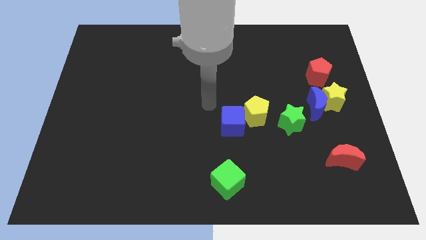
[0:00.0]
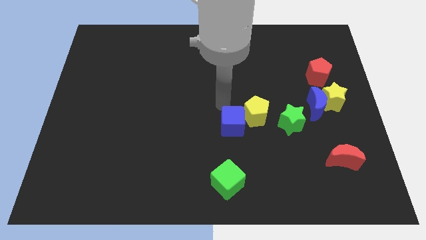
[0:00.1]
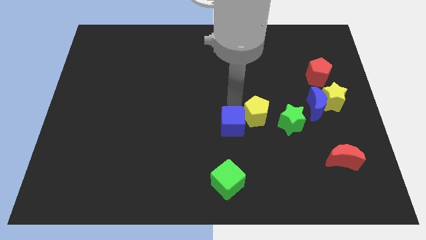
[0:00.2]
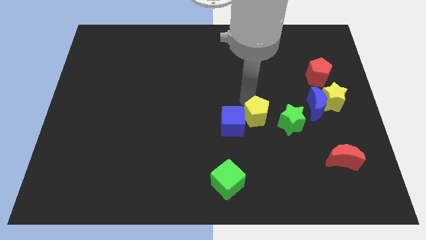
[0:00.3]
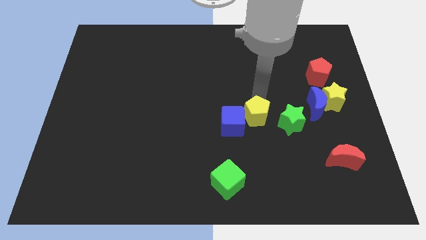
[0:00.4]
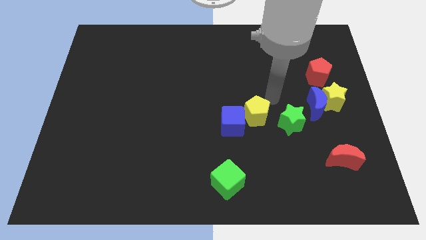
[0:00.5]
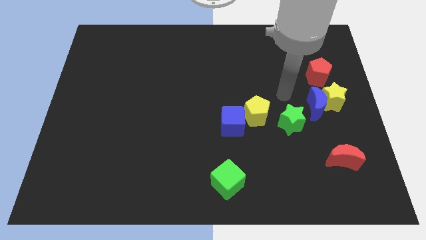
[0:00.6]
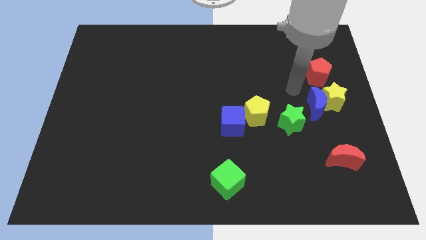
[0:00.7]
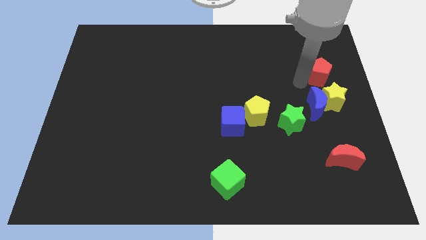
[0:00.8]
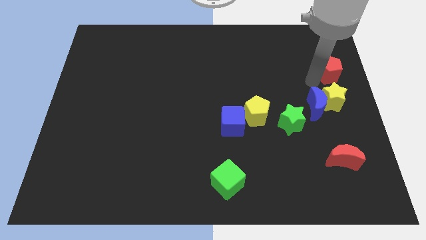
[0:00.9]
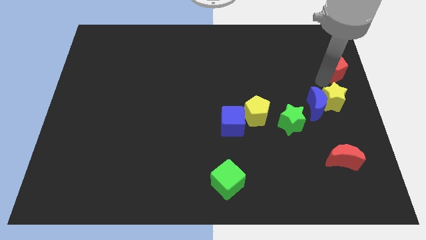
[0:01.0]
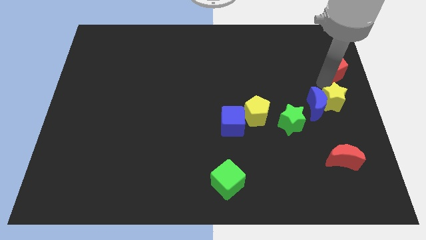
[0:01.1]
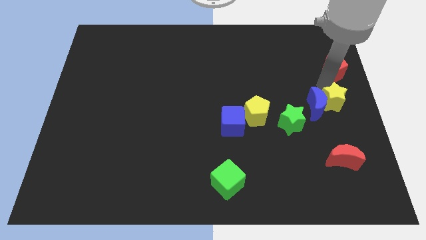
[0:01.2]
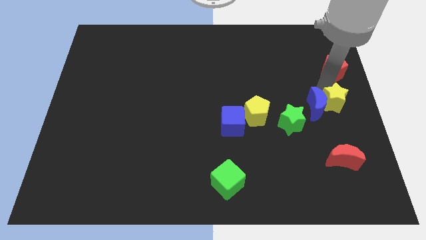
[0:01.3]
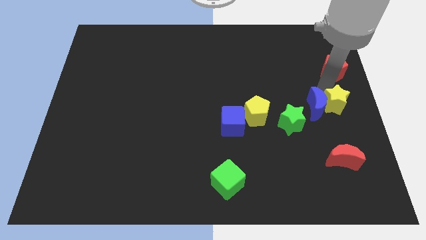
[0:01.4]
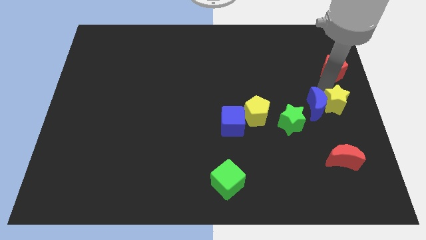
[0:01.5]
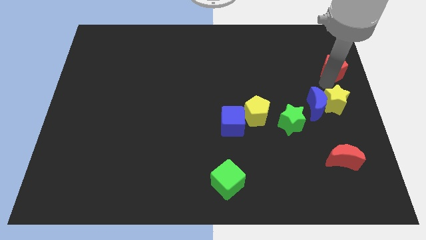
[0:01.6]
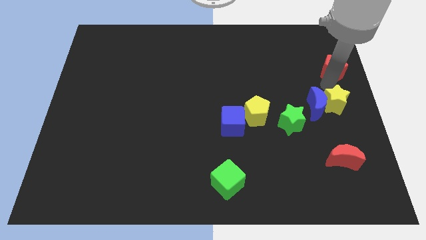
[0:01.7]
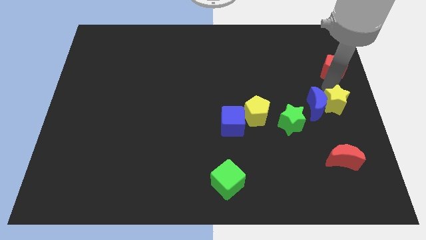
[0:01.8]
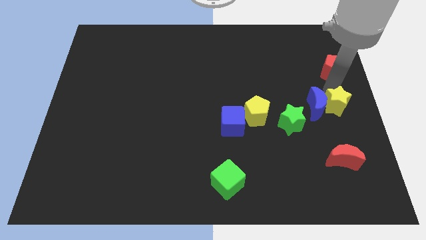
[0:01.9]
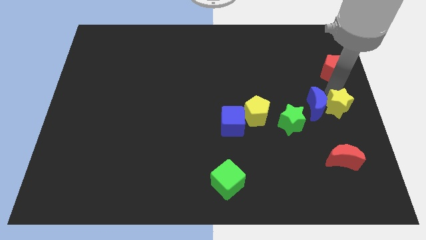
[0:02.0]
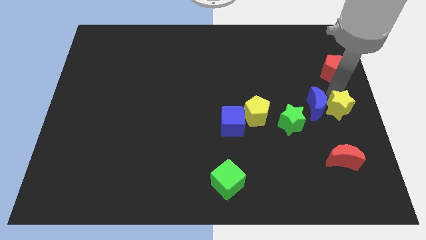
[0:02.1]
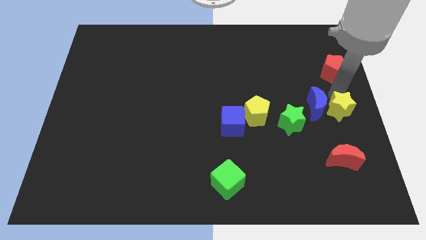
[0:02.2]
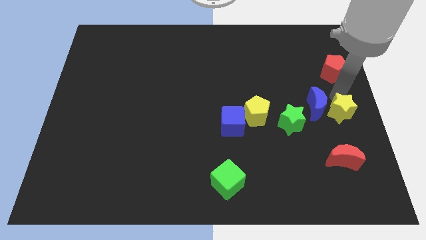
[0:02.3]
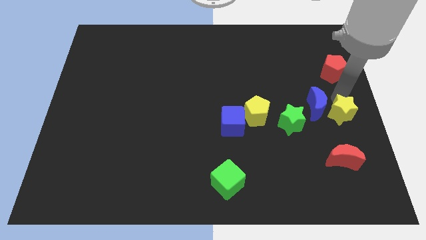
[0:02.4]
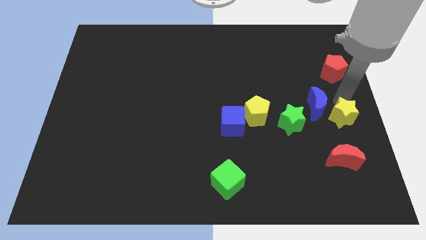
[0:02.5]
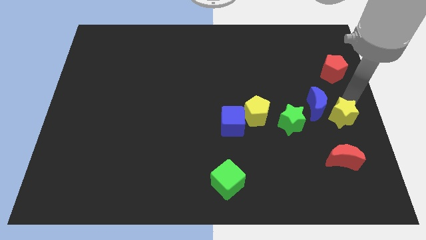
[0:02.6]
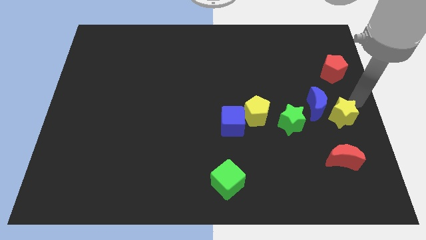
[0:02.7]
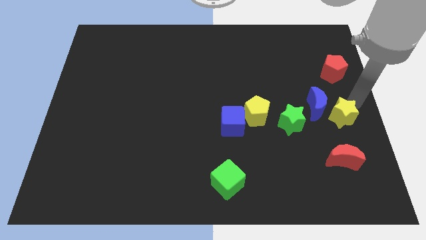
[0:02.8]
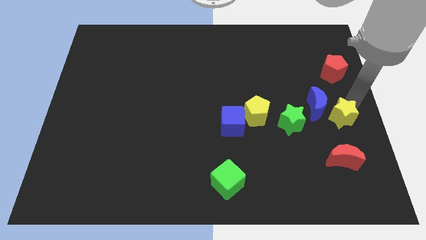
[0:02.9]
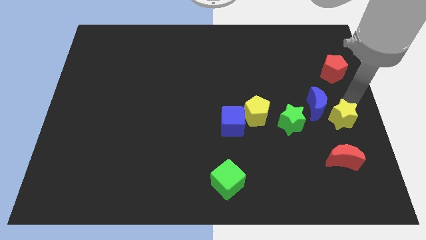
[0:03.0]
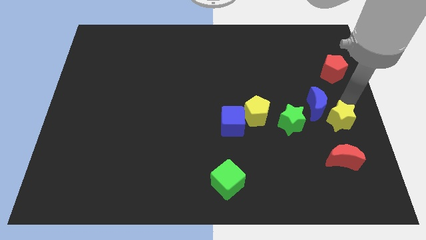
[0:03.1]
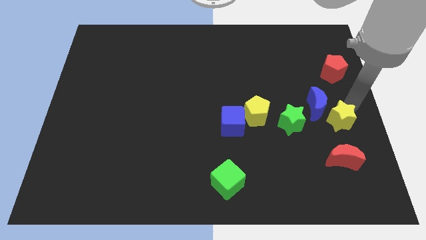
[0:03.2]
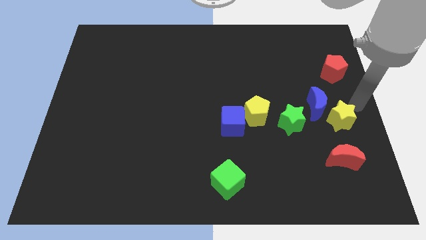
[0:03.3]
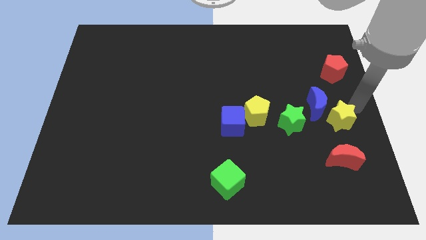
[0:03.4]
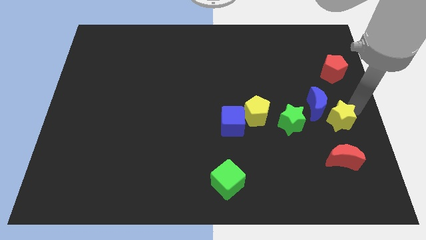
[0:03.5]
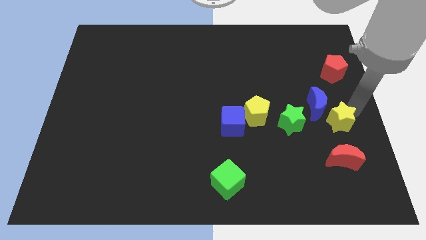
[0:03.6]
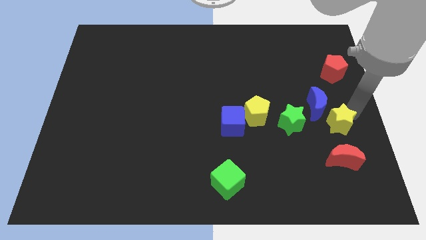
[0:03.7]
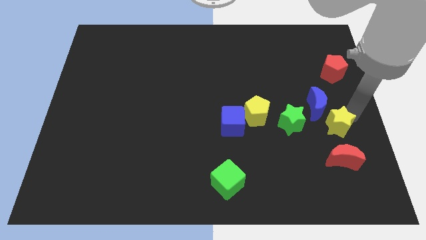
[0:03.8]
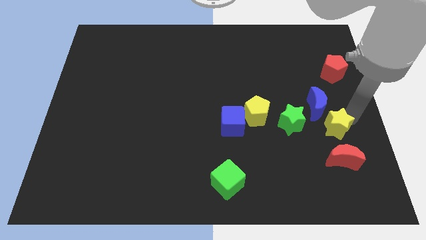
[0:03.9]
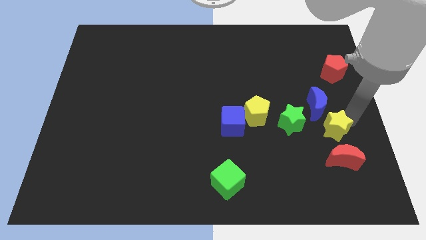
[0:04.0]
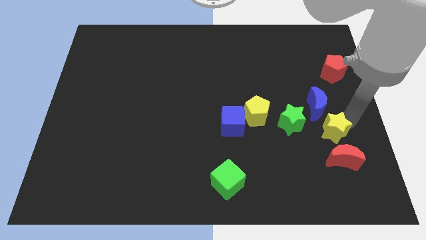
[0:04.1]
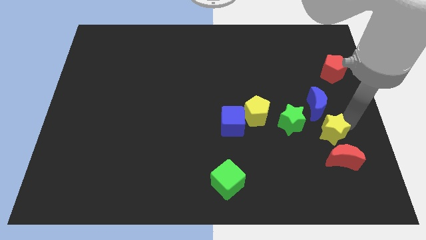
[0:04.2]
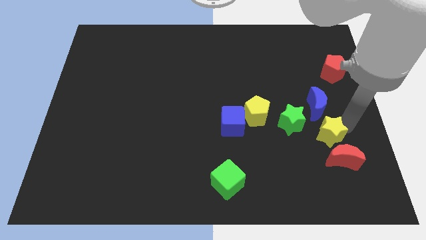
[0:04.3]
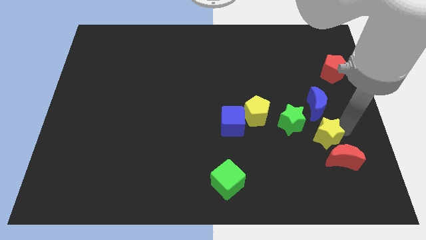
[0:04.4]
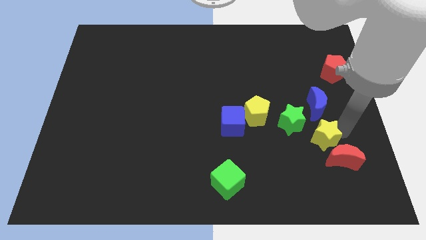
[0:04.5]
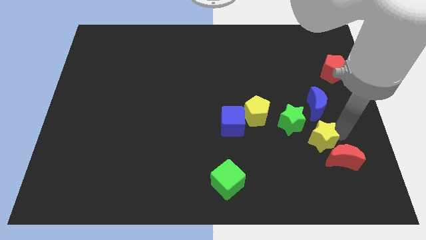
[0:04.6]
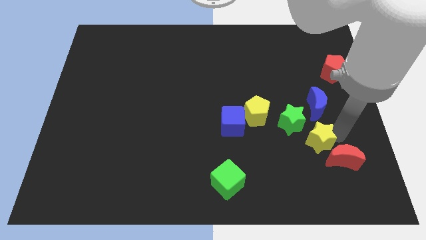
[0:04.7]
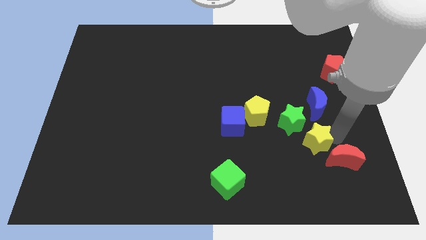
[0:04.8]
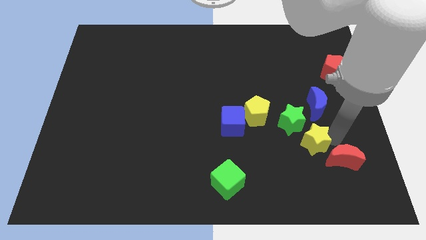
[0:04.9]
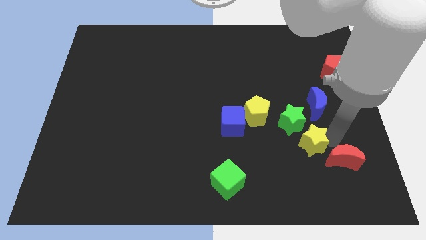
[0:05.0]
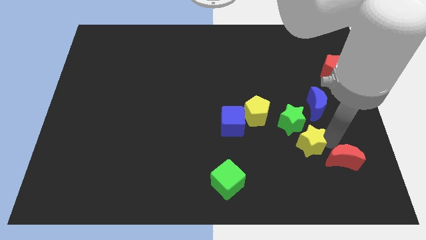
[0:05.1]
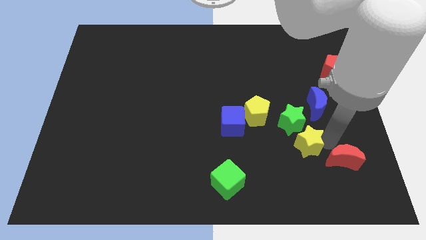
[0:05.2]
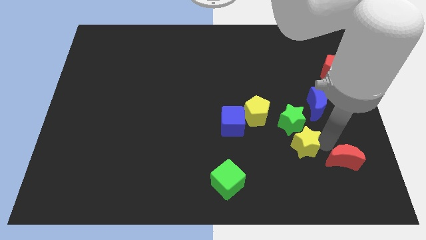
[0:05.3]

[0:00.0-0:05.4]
push the yellow star to the bottom right of the yellow pentagon

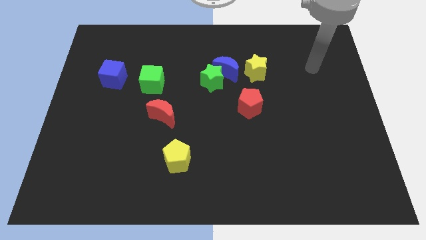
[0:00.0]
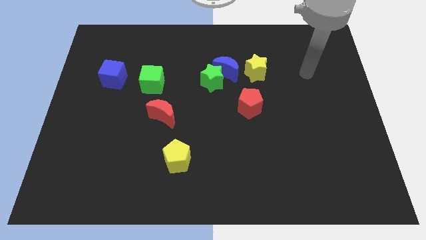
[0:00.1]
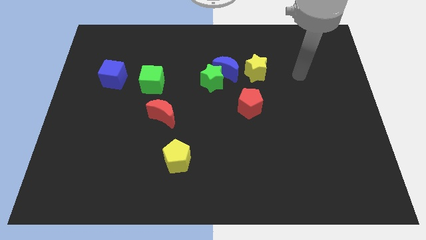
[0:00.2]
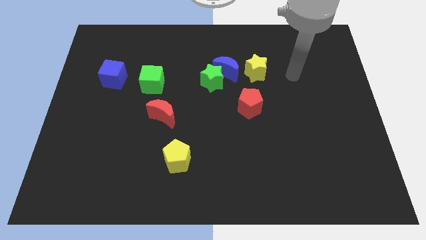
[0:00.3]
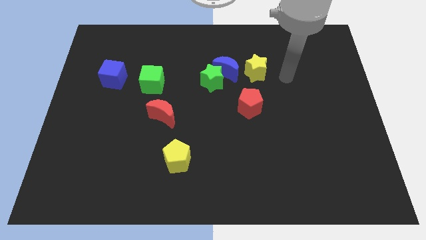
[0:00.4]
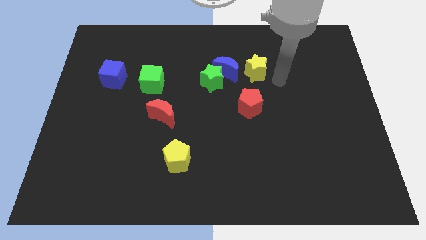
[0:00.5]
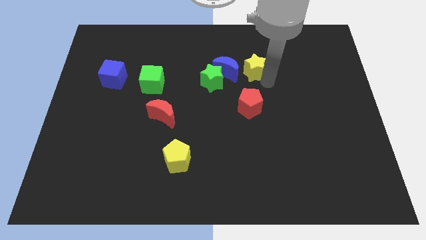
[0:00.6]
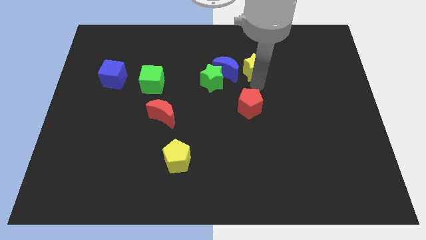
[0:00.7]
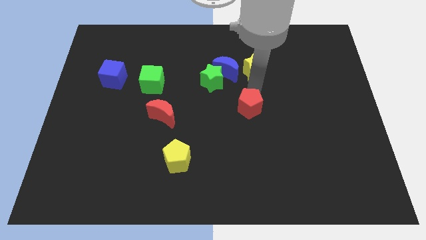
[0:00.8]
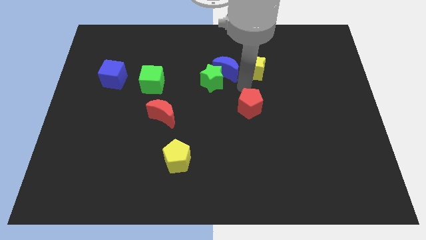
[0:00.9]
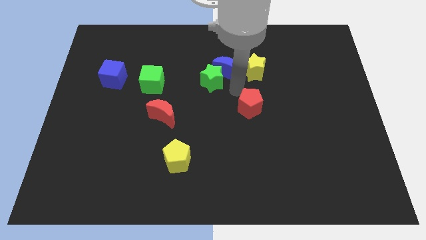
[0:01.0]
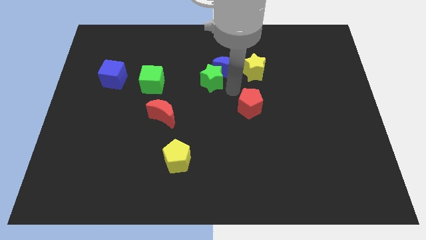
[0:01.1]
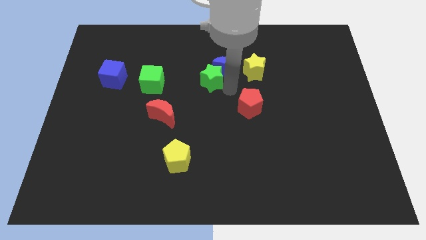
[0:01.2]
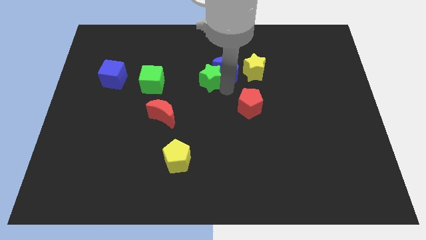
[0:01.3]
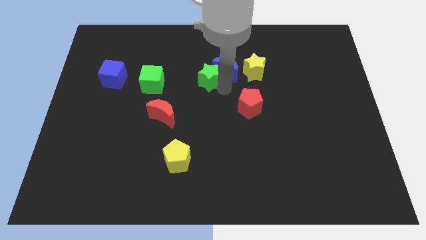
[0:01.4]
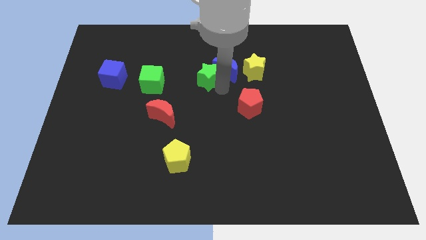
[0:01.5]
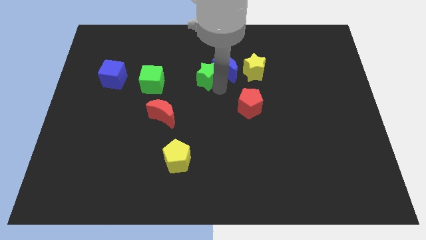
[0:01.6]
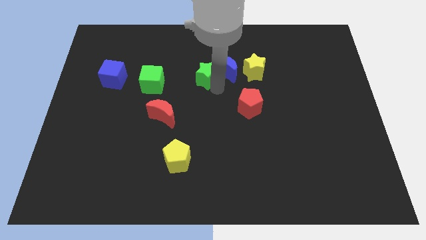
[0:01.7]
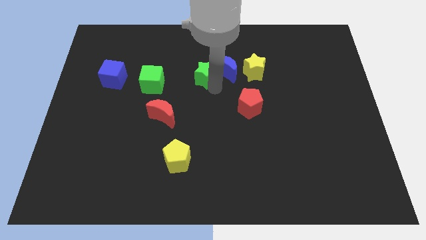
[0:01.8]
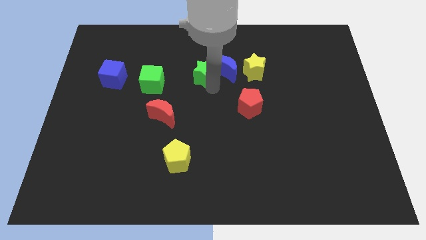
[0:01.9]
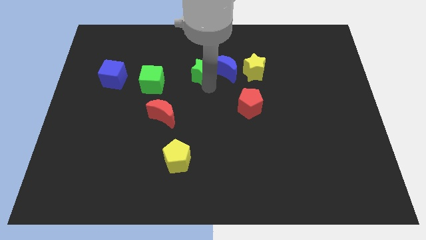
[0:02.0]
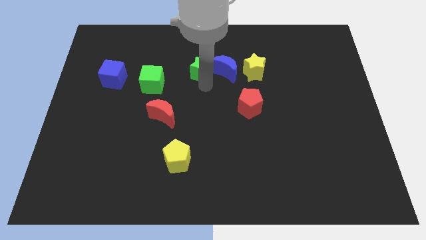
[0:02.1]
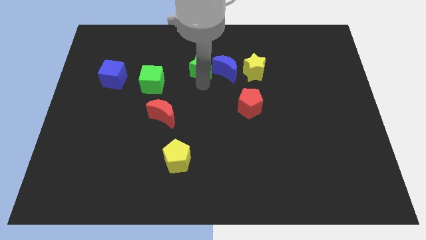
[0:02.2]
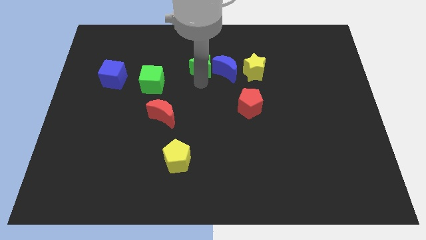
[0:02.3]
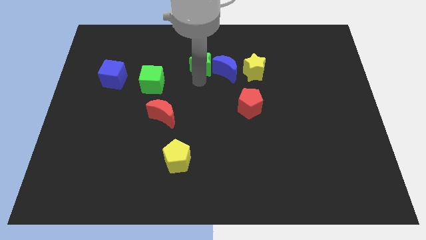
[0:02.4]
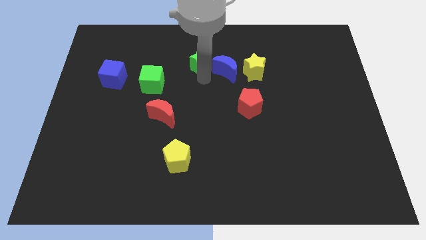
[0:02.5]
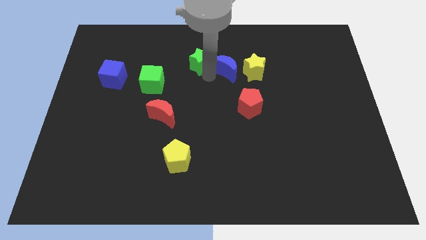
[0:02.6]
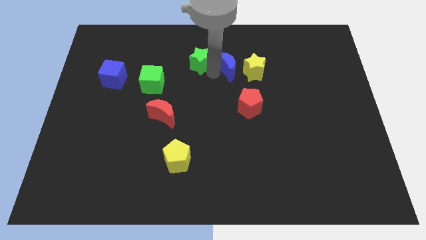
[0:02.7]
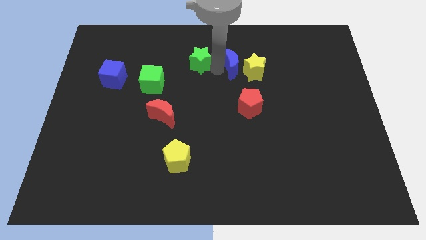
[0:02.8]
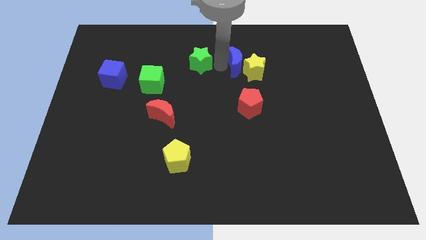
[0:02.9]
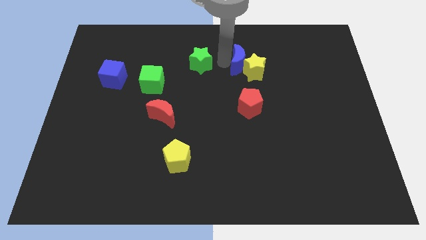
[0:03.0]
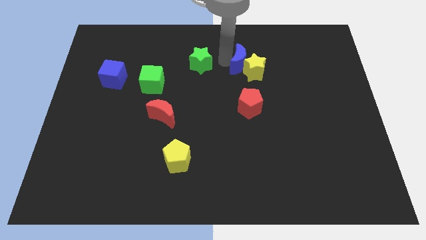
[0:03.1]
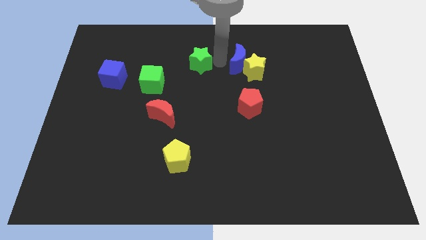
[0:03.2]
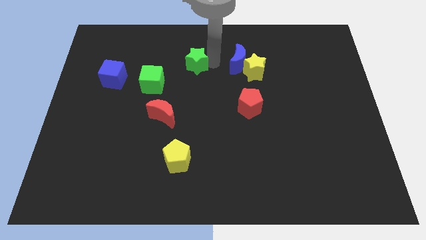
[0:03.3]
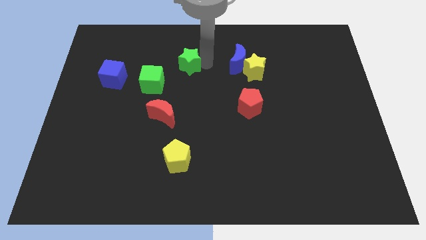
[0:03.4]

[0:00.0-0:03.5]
move the green star to the top right side of the green cube
